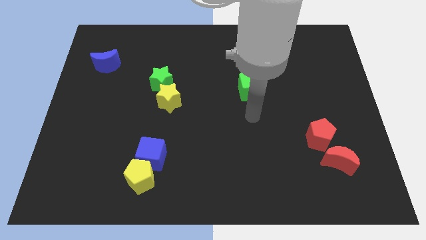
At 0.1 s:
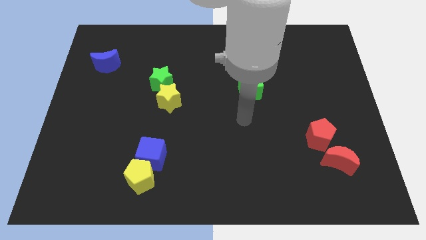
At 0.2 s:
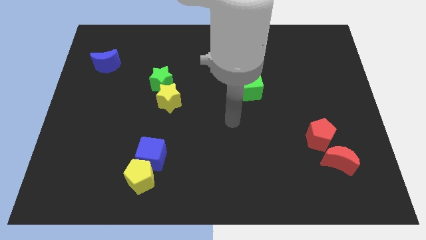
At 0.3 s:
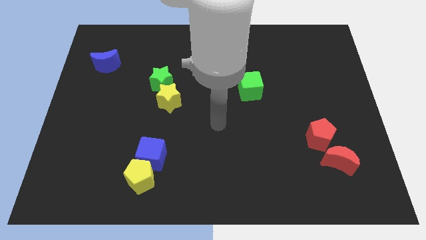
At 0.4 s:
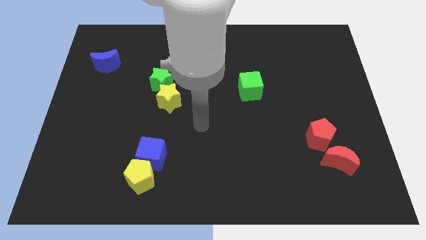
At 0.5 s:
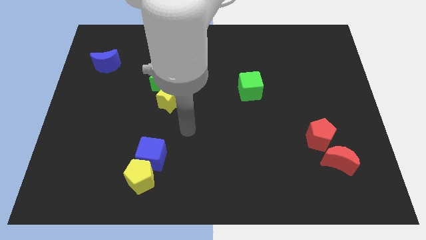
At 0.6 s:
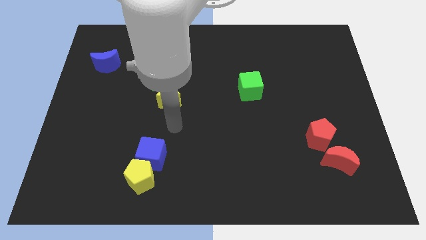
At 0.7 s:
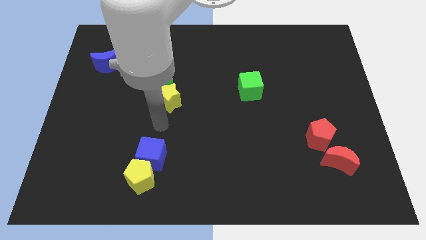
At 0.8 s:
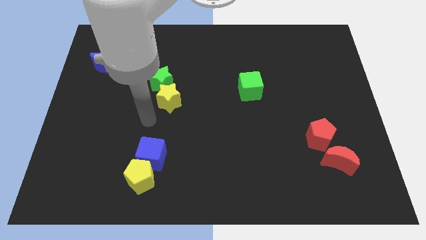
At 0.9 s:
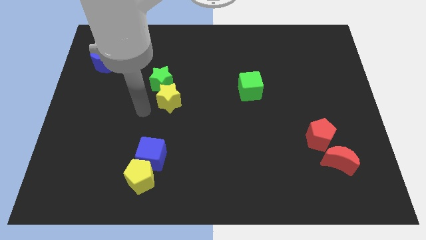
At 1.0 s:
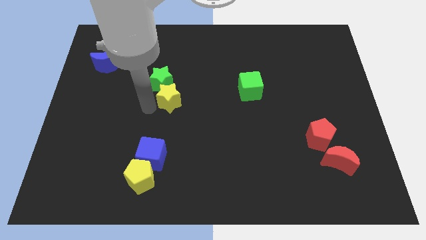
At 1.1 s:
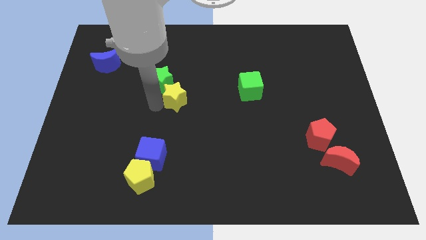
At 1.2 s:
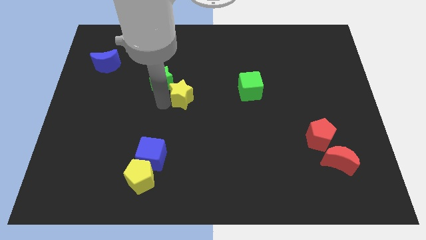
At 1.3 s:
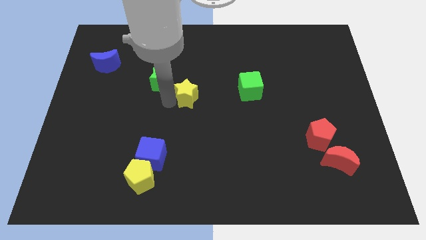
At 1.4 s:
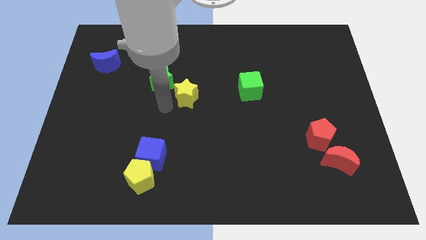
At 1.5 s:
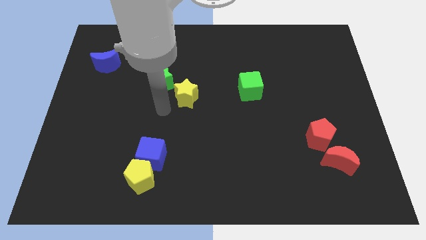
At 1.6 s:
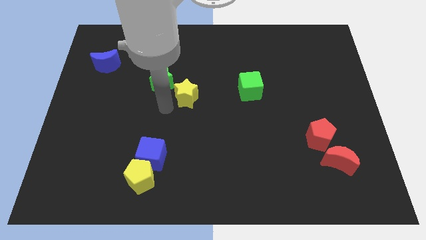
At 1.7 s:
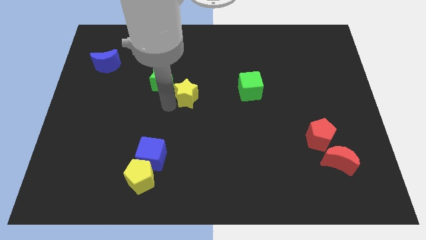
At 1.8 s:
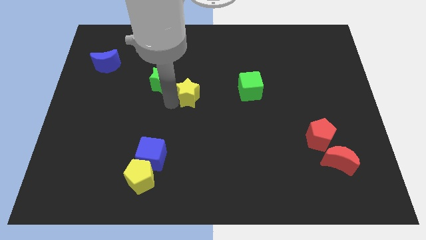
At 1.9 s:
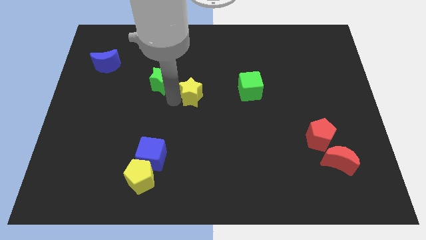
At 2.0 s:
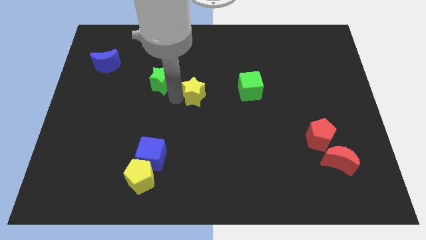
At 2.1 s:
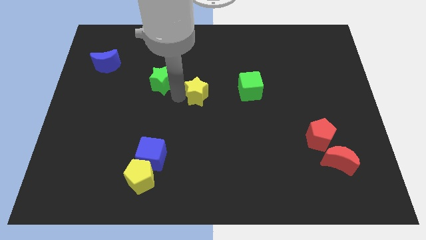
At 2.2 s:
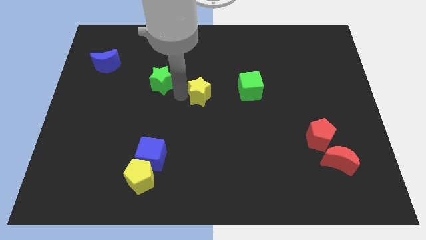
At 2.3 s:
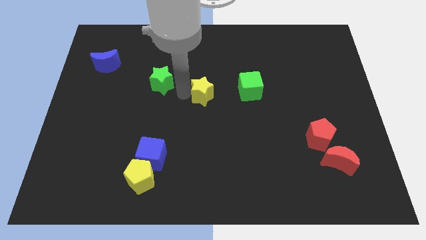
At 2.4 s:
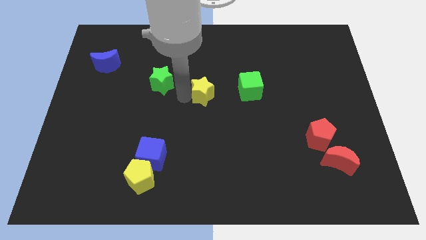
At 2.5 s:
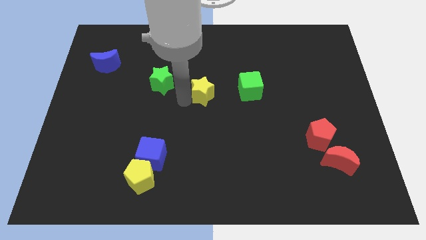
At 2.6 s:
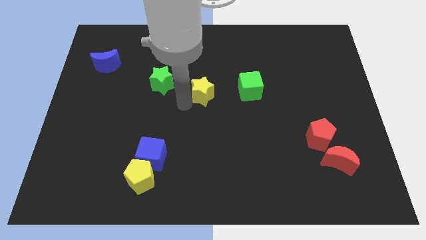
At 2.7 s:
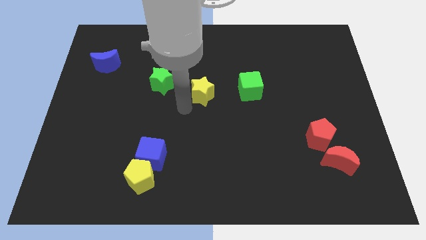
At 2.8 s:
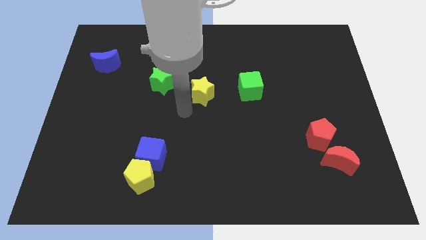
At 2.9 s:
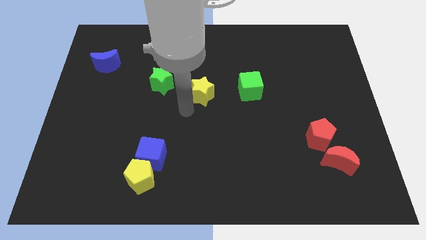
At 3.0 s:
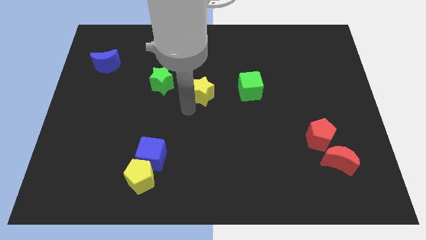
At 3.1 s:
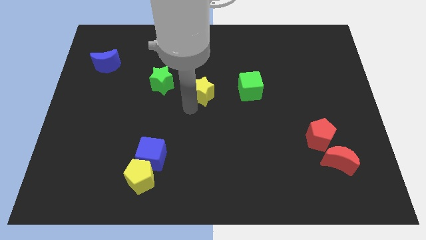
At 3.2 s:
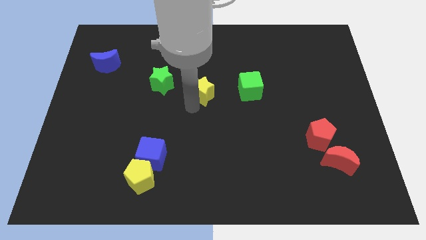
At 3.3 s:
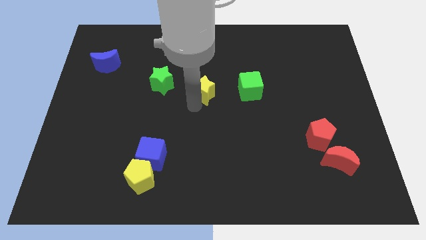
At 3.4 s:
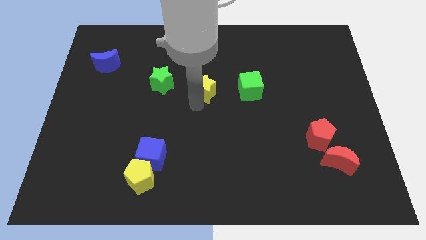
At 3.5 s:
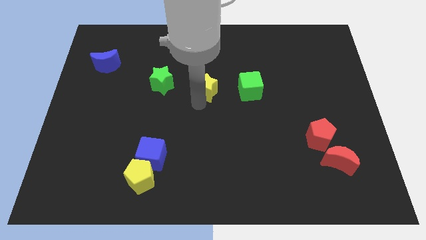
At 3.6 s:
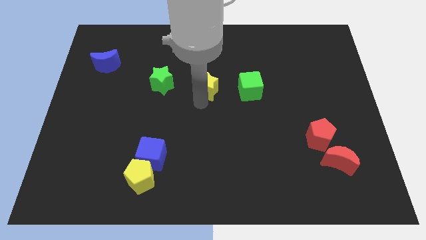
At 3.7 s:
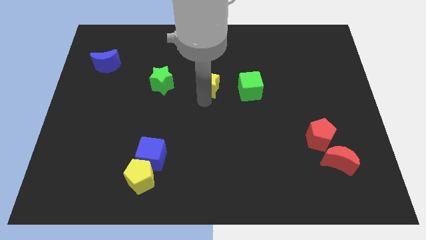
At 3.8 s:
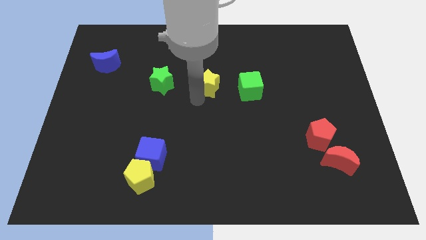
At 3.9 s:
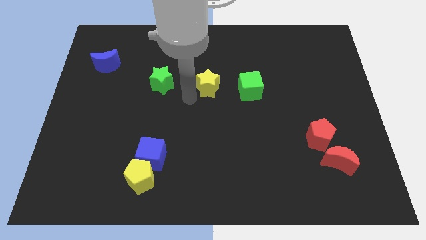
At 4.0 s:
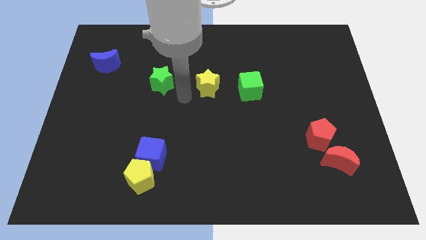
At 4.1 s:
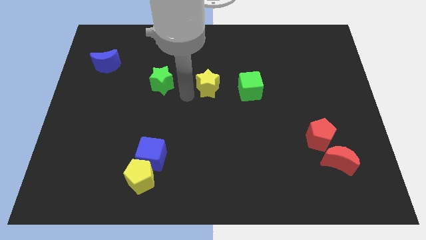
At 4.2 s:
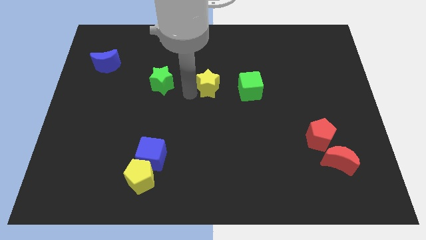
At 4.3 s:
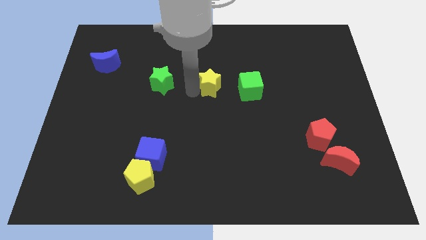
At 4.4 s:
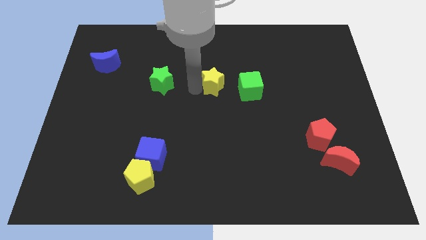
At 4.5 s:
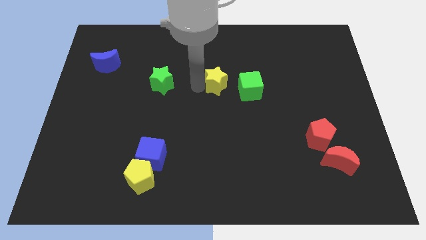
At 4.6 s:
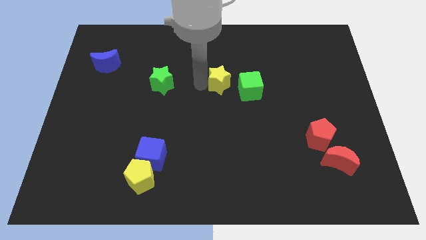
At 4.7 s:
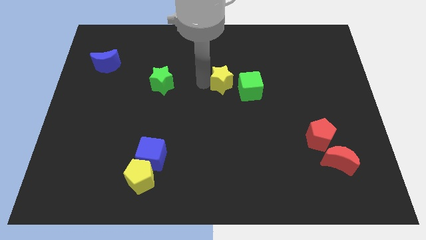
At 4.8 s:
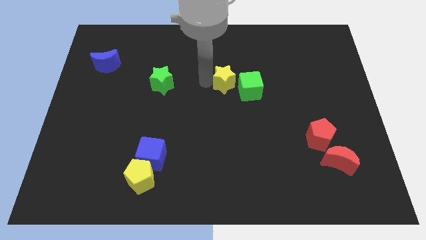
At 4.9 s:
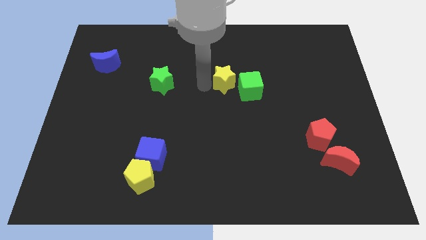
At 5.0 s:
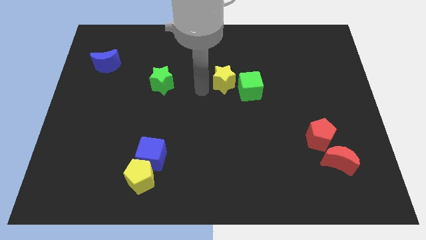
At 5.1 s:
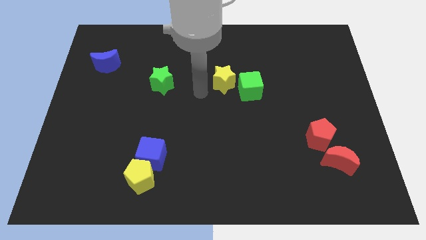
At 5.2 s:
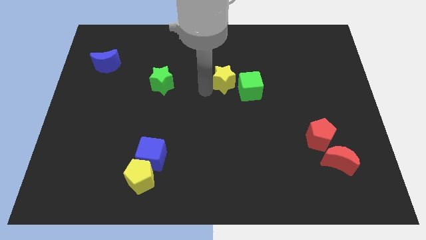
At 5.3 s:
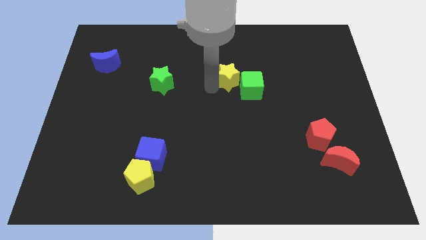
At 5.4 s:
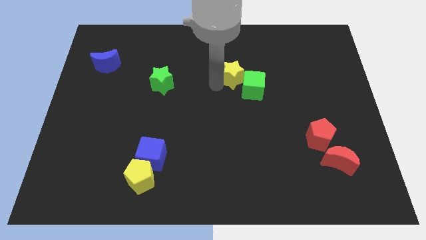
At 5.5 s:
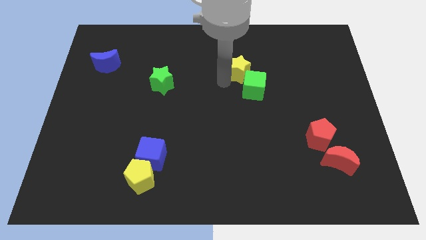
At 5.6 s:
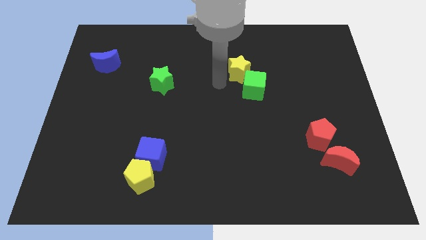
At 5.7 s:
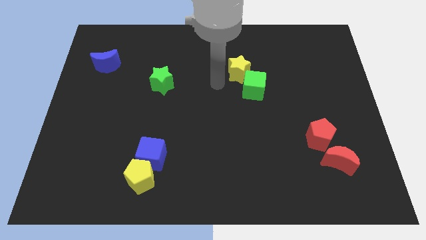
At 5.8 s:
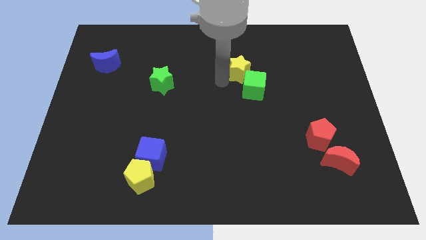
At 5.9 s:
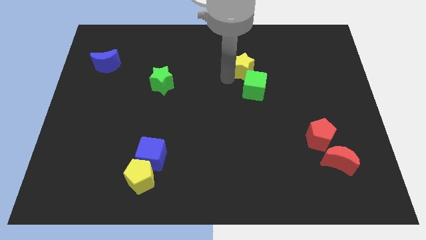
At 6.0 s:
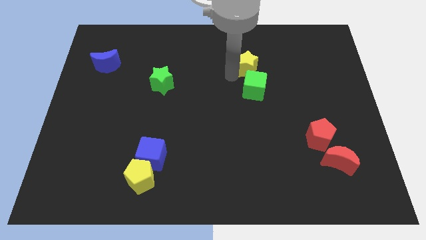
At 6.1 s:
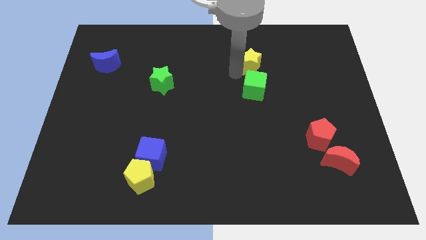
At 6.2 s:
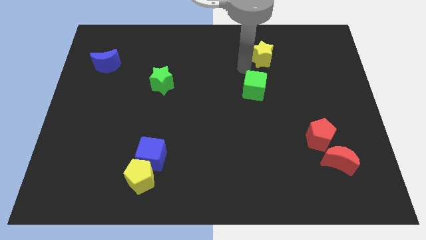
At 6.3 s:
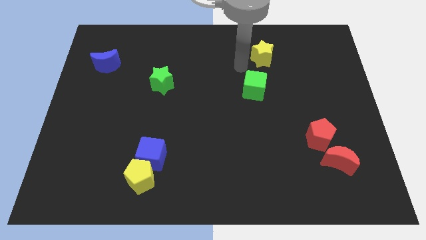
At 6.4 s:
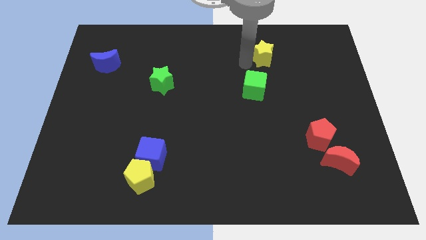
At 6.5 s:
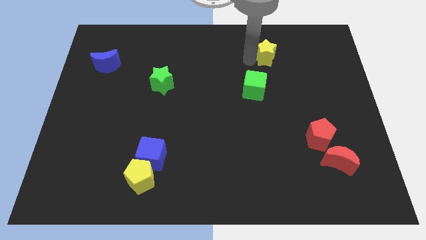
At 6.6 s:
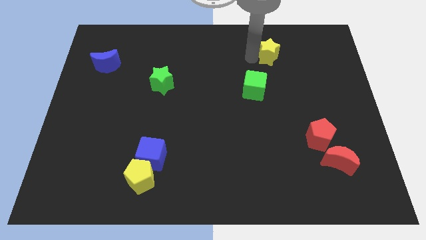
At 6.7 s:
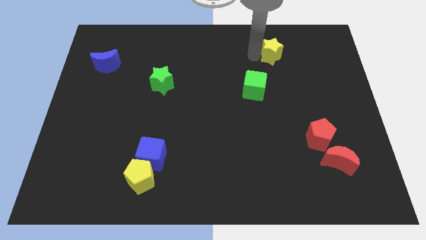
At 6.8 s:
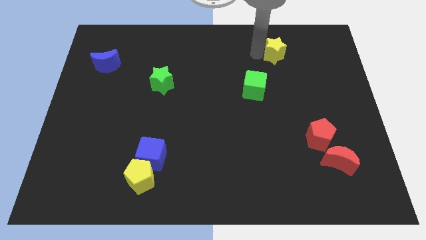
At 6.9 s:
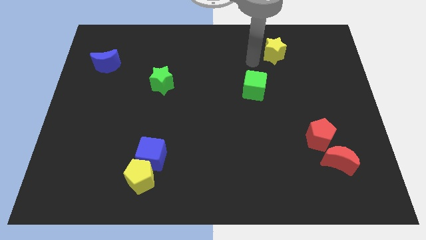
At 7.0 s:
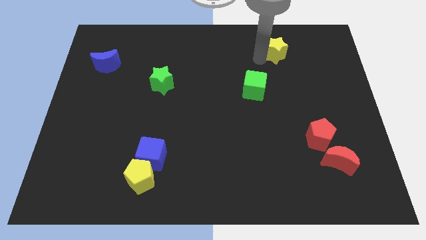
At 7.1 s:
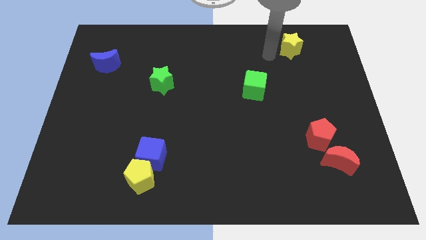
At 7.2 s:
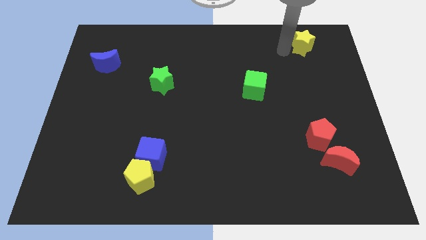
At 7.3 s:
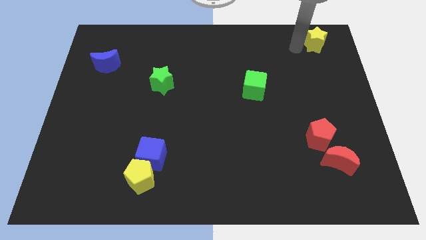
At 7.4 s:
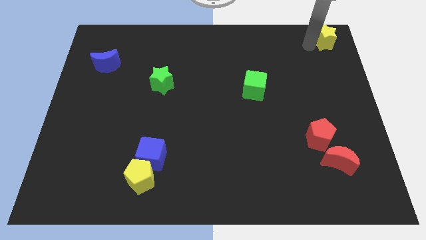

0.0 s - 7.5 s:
move the yellow star to the upper right corner
